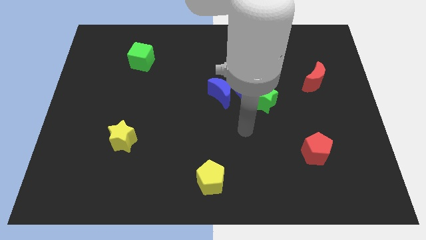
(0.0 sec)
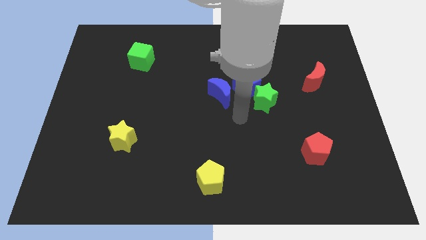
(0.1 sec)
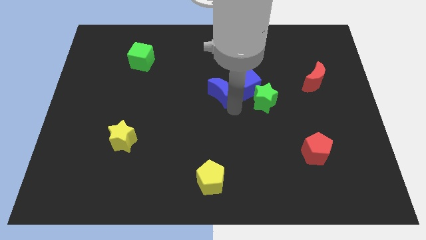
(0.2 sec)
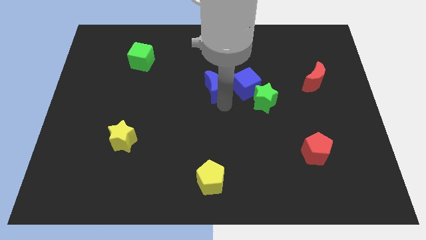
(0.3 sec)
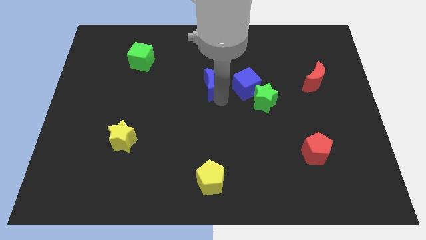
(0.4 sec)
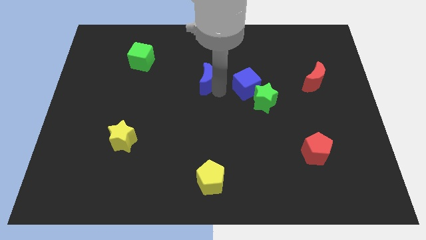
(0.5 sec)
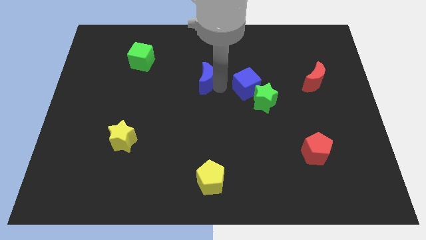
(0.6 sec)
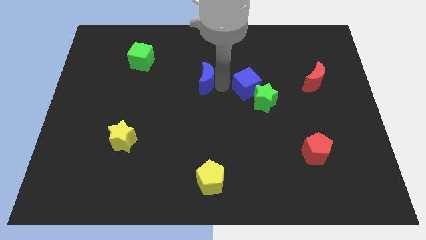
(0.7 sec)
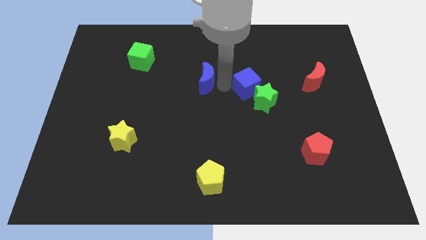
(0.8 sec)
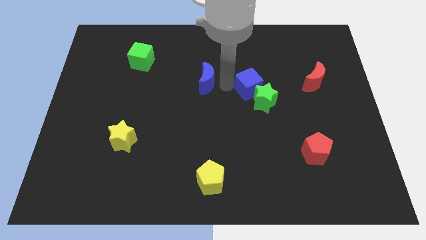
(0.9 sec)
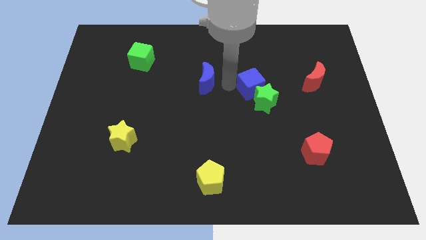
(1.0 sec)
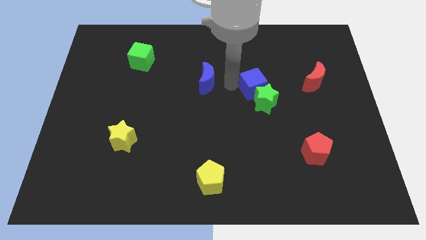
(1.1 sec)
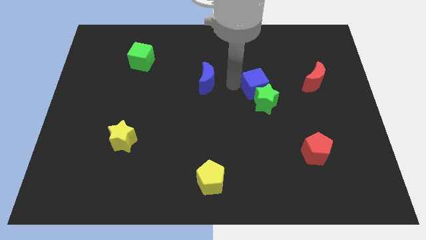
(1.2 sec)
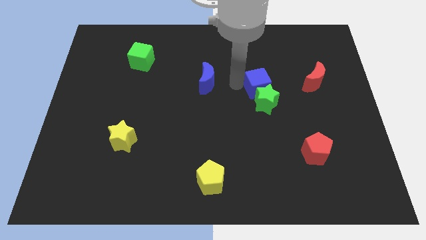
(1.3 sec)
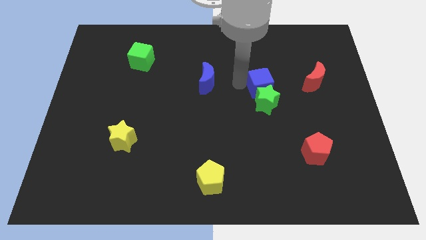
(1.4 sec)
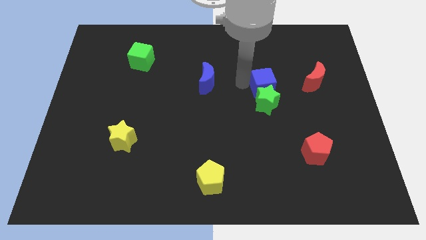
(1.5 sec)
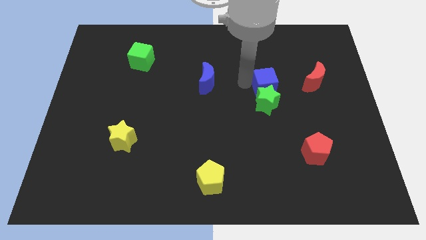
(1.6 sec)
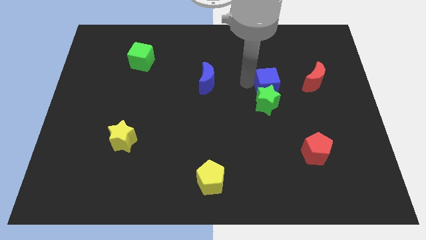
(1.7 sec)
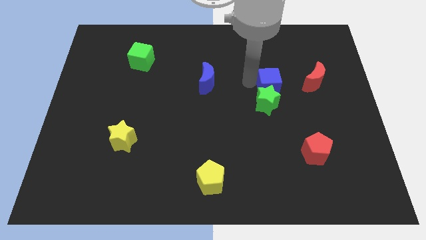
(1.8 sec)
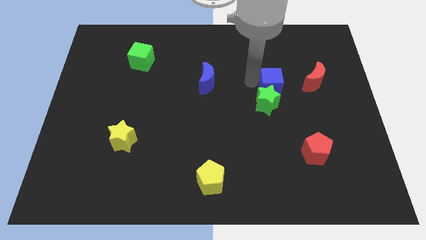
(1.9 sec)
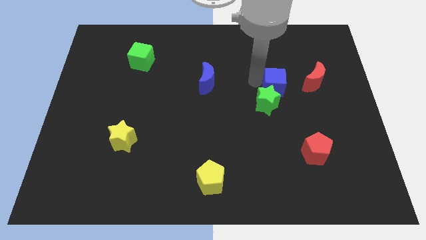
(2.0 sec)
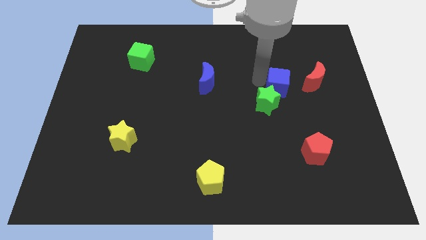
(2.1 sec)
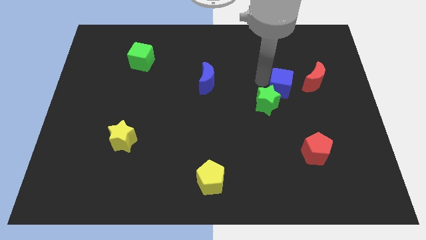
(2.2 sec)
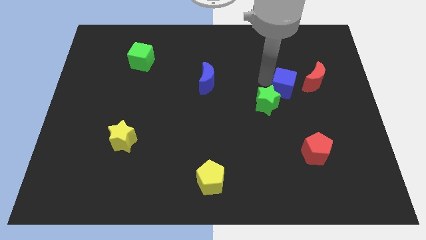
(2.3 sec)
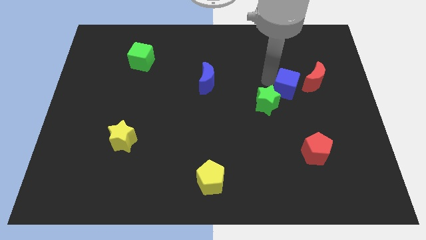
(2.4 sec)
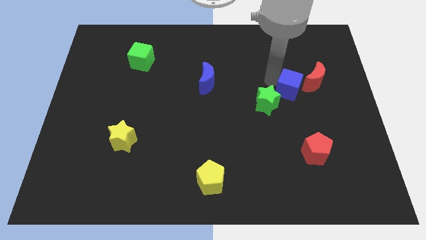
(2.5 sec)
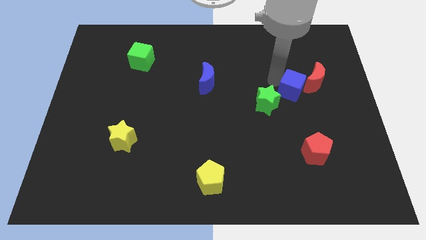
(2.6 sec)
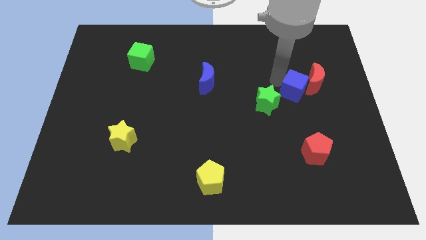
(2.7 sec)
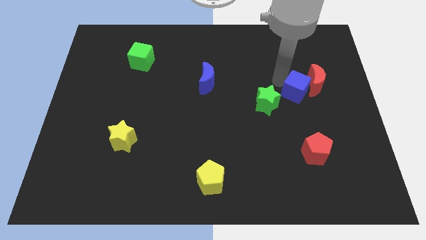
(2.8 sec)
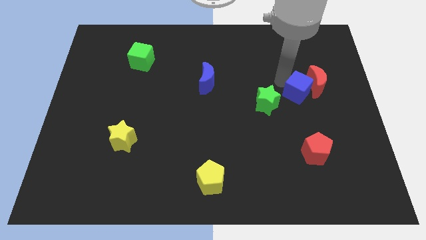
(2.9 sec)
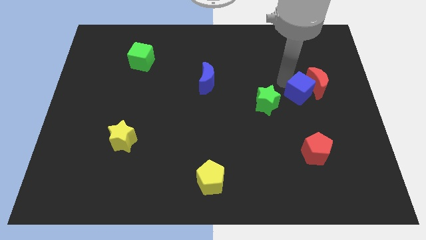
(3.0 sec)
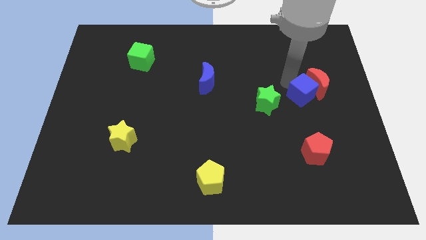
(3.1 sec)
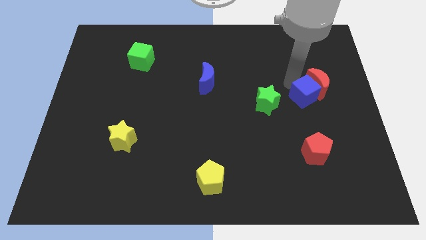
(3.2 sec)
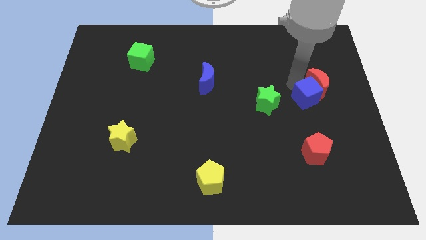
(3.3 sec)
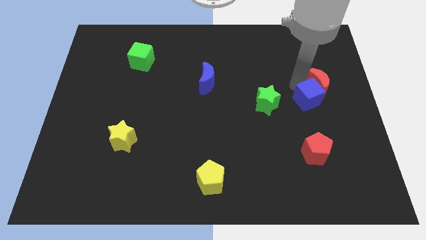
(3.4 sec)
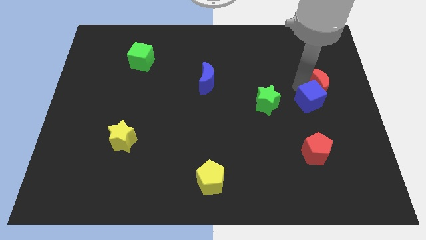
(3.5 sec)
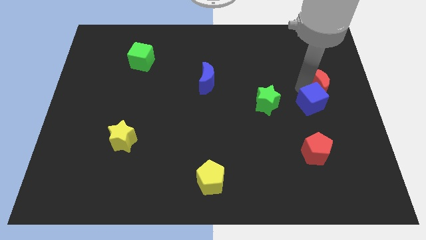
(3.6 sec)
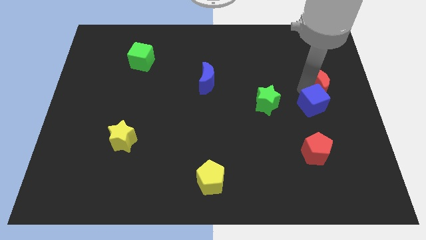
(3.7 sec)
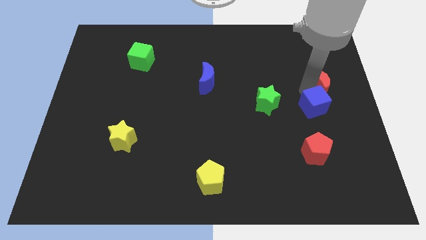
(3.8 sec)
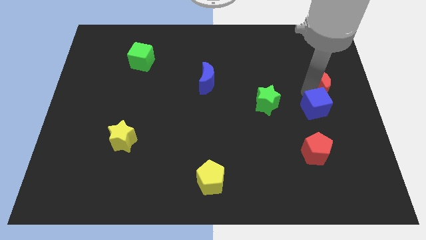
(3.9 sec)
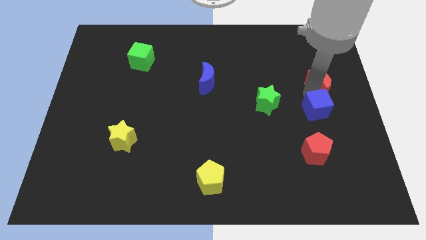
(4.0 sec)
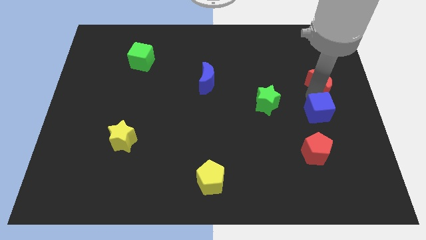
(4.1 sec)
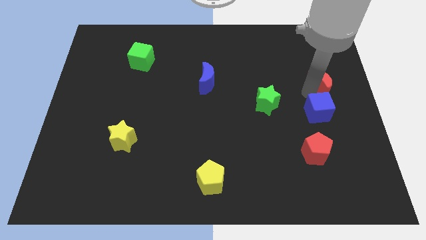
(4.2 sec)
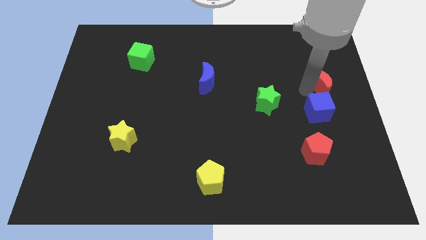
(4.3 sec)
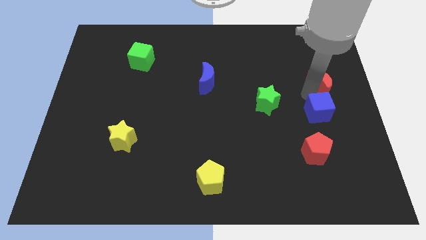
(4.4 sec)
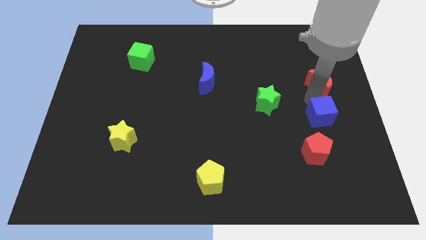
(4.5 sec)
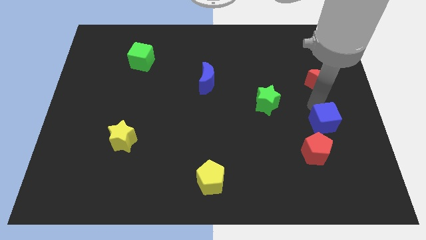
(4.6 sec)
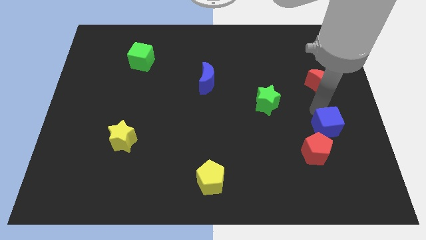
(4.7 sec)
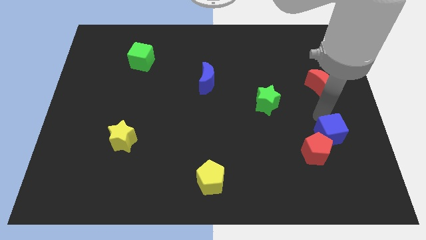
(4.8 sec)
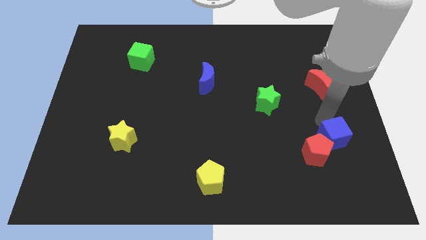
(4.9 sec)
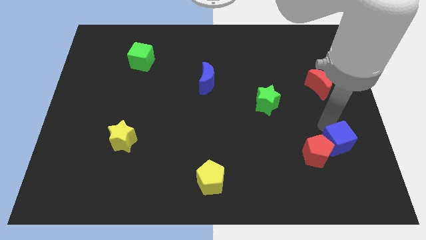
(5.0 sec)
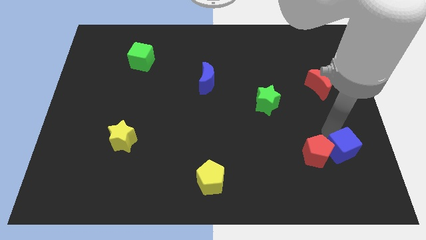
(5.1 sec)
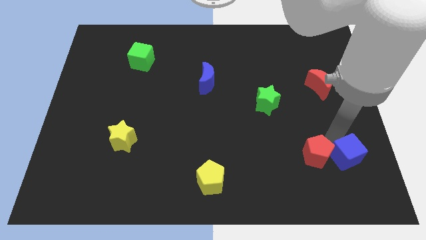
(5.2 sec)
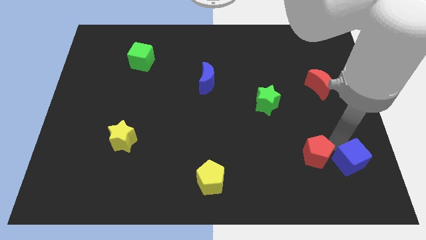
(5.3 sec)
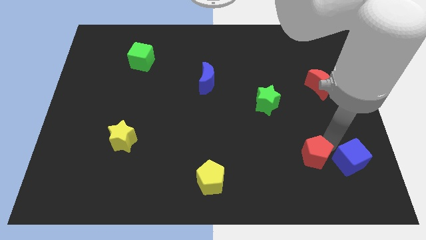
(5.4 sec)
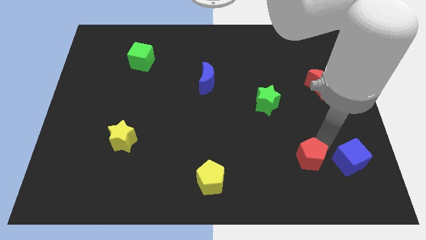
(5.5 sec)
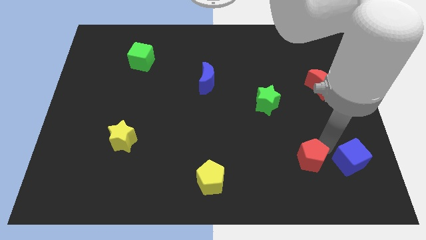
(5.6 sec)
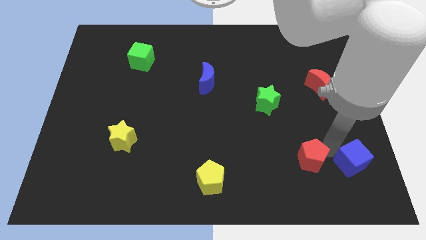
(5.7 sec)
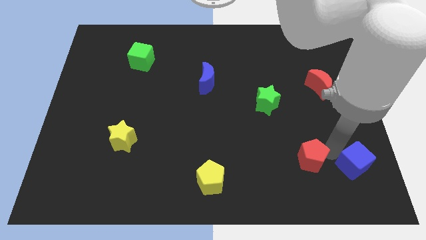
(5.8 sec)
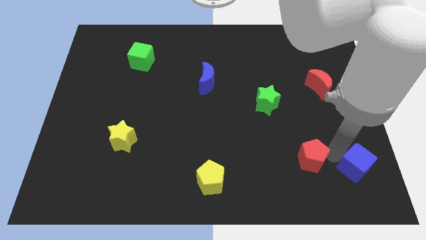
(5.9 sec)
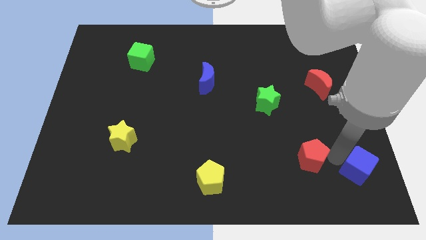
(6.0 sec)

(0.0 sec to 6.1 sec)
move the blue cube to the bottom right
